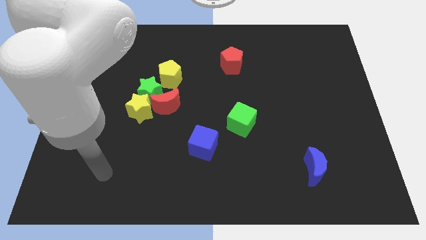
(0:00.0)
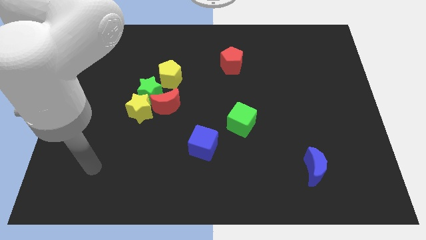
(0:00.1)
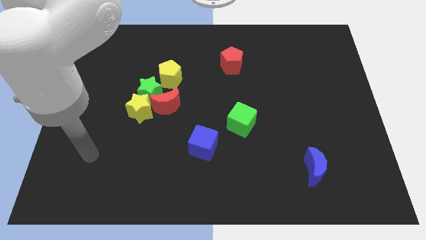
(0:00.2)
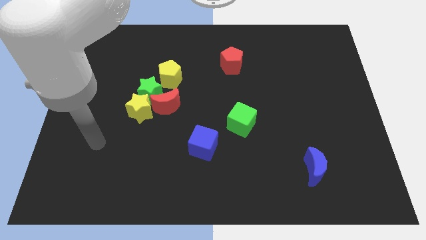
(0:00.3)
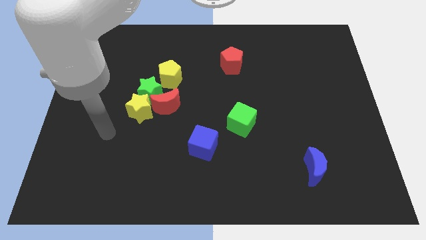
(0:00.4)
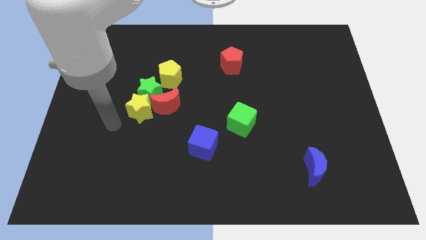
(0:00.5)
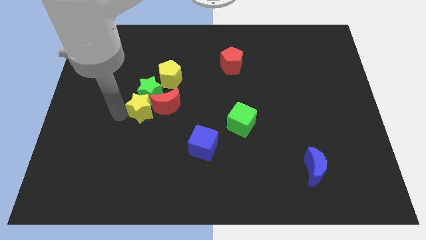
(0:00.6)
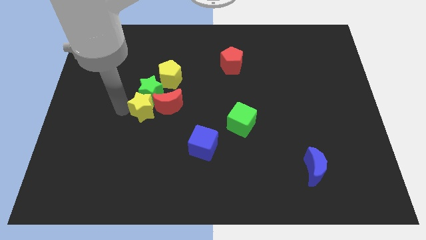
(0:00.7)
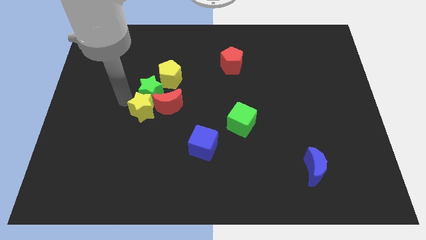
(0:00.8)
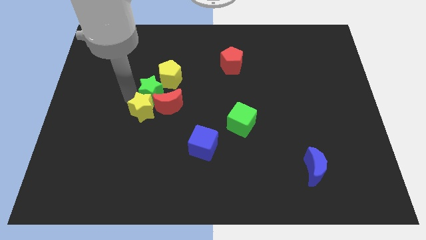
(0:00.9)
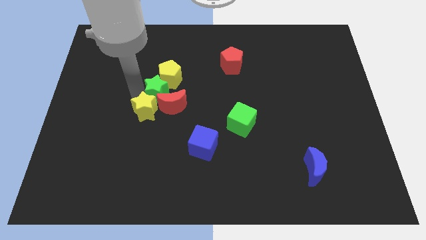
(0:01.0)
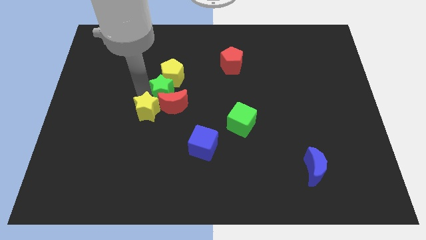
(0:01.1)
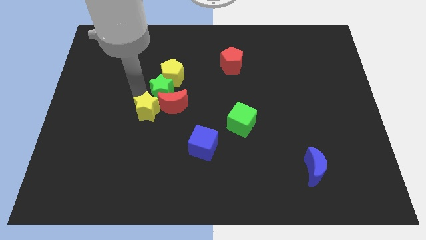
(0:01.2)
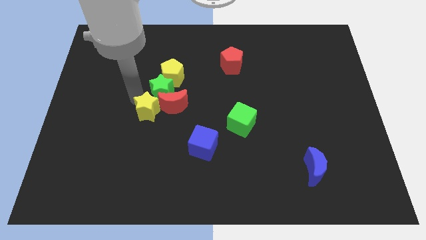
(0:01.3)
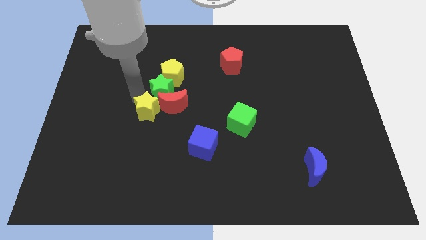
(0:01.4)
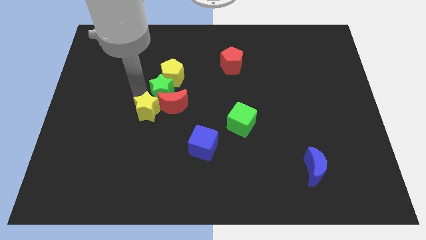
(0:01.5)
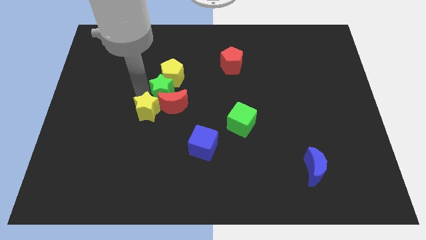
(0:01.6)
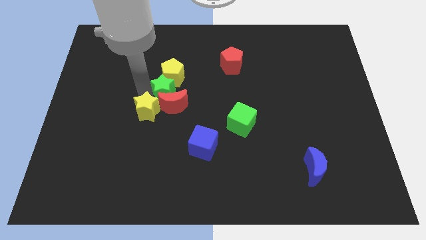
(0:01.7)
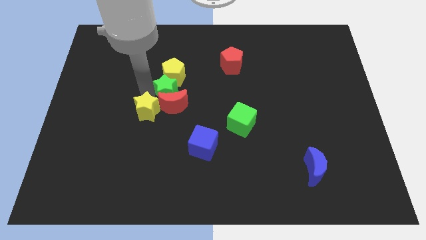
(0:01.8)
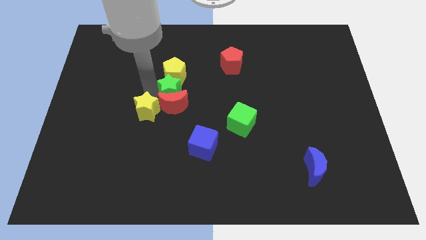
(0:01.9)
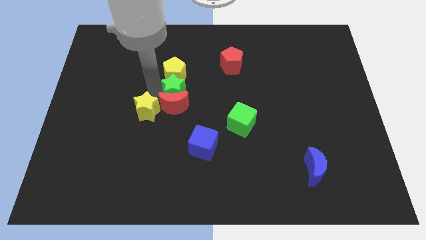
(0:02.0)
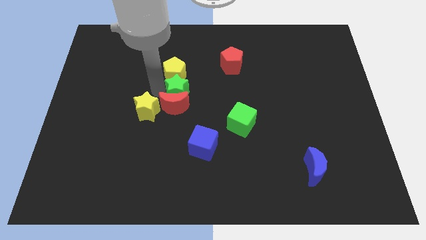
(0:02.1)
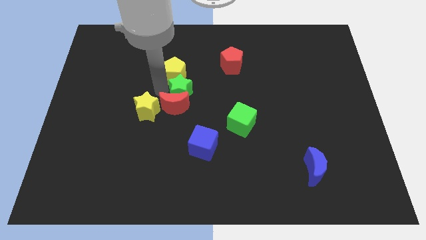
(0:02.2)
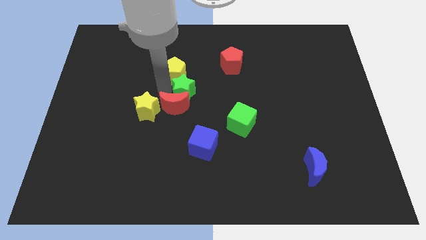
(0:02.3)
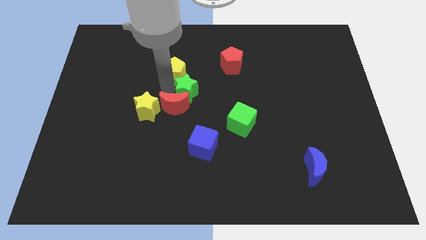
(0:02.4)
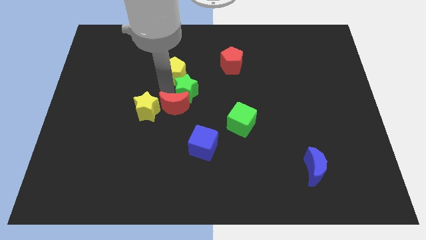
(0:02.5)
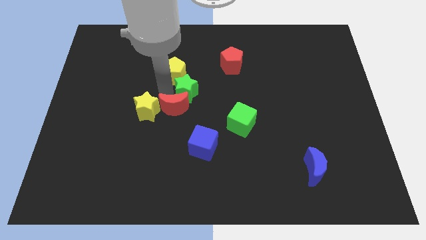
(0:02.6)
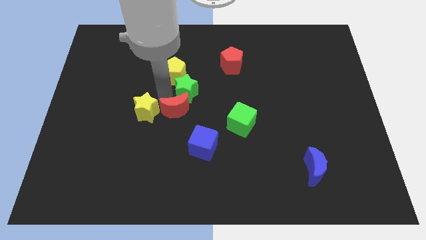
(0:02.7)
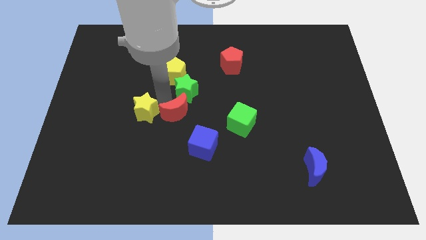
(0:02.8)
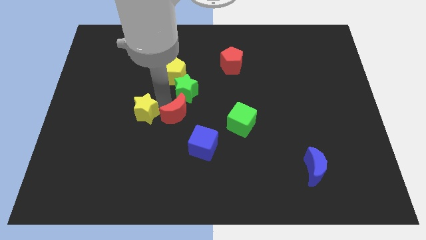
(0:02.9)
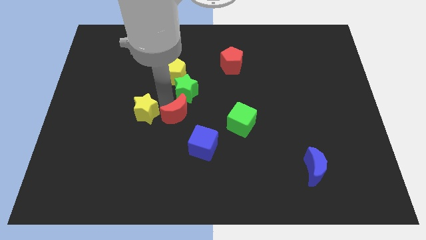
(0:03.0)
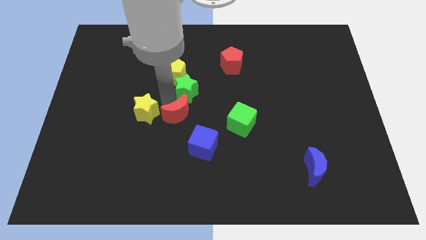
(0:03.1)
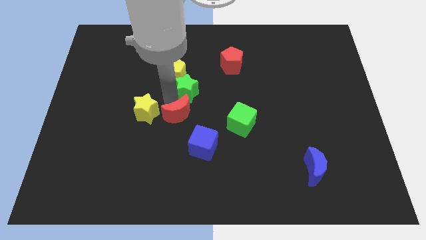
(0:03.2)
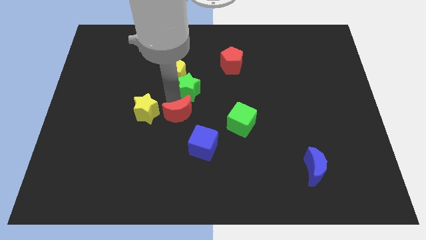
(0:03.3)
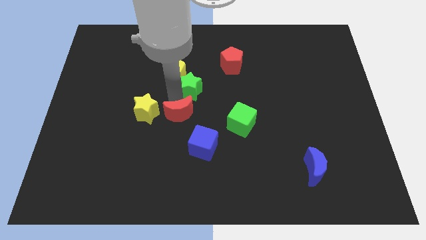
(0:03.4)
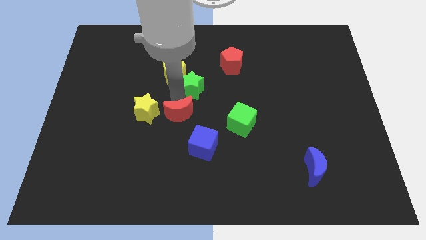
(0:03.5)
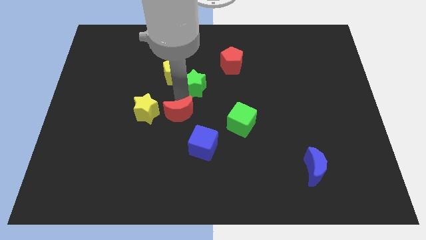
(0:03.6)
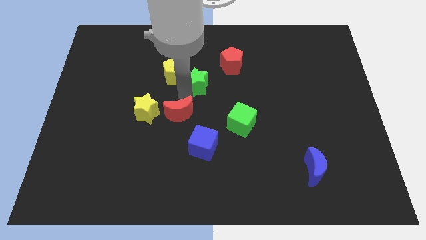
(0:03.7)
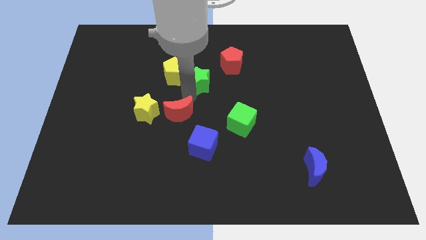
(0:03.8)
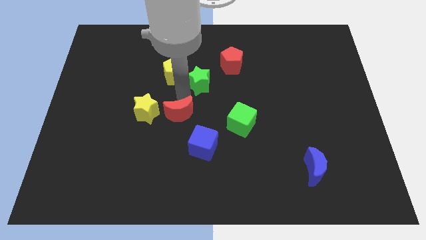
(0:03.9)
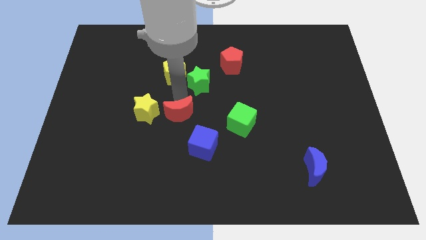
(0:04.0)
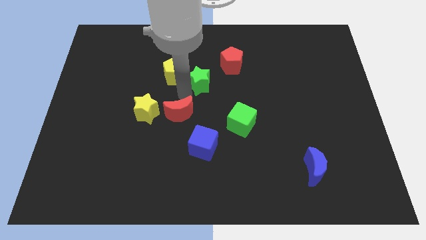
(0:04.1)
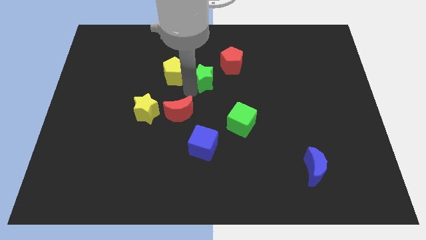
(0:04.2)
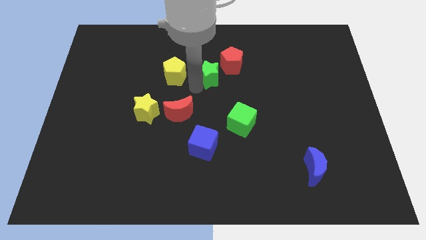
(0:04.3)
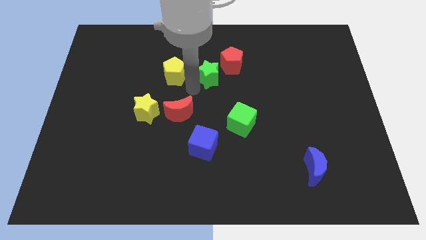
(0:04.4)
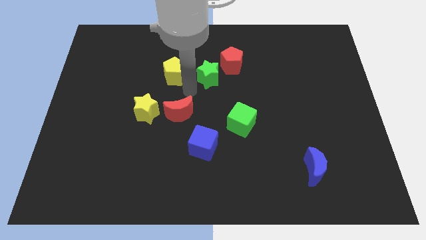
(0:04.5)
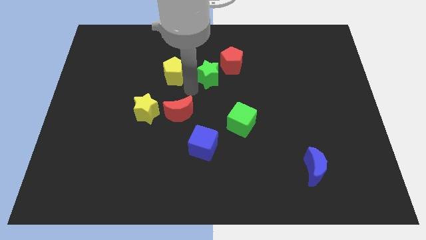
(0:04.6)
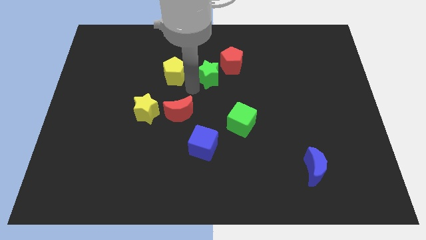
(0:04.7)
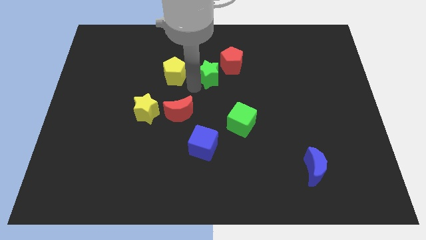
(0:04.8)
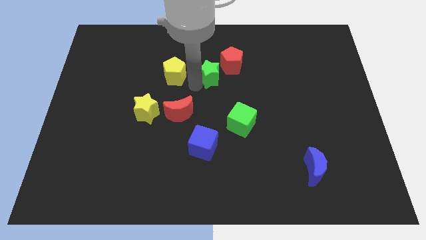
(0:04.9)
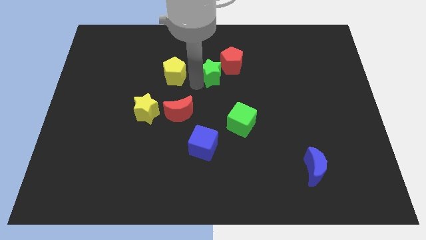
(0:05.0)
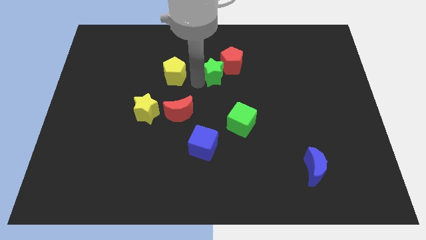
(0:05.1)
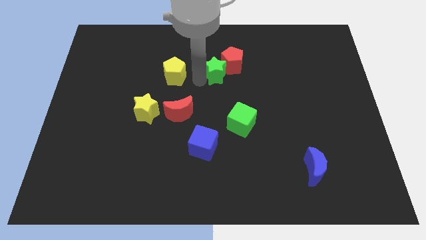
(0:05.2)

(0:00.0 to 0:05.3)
slide the green star close to the red pentagon

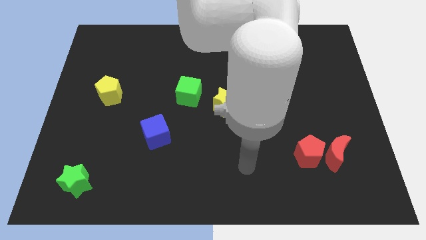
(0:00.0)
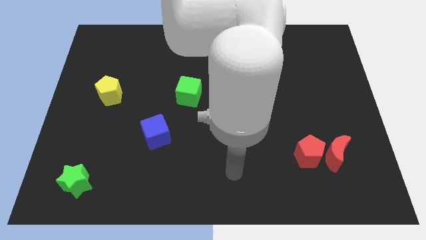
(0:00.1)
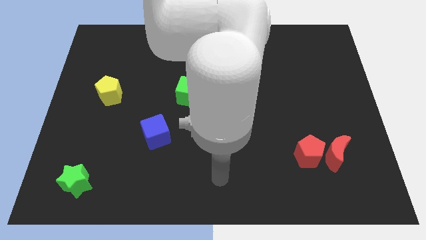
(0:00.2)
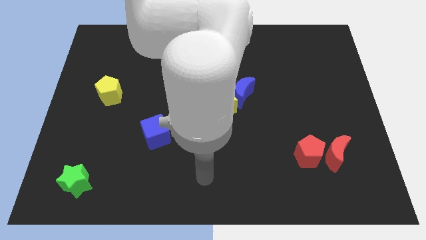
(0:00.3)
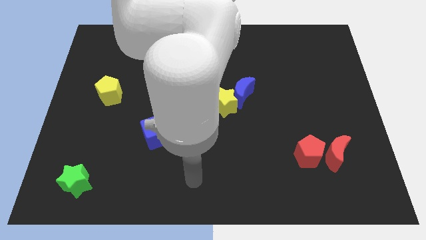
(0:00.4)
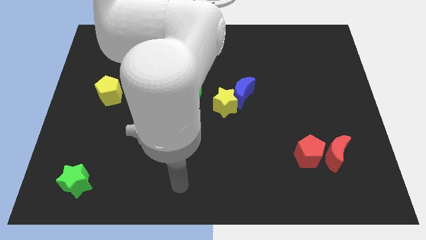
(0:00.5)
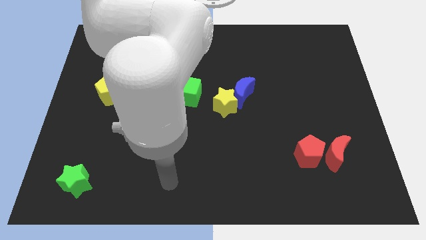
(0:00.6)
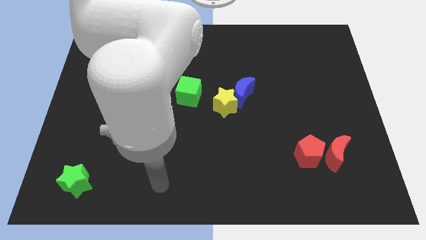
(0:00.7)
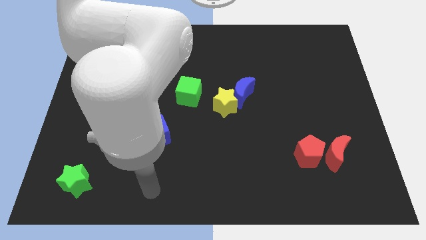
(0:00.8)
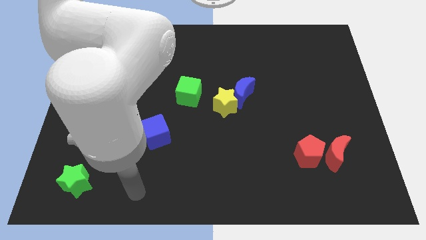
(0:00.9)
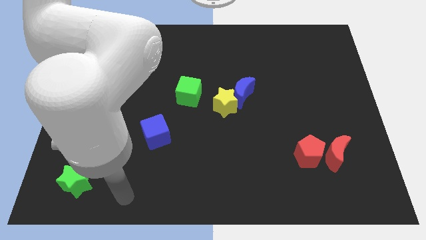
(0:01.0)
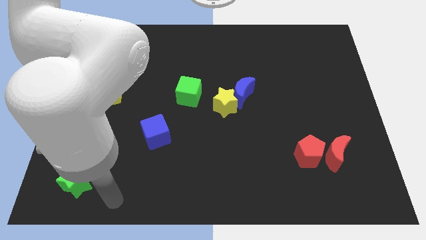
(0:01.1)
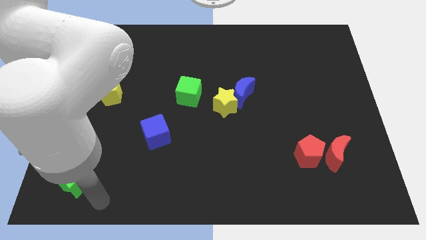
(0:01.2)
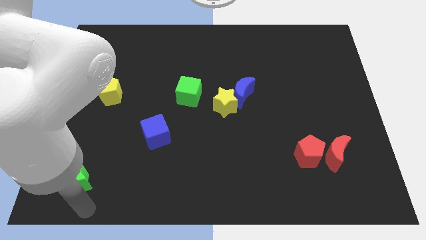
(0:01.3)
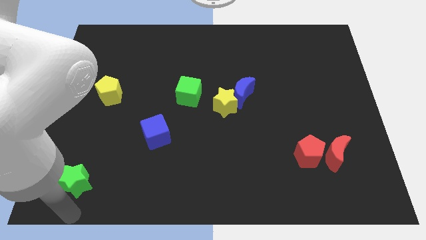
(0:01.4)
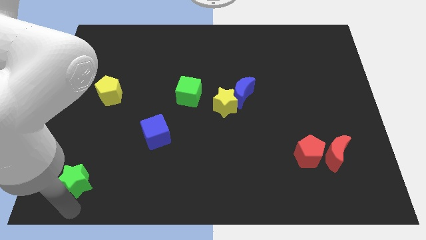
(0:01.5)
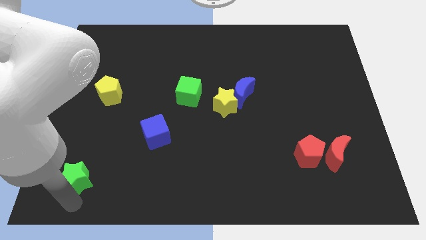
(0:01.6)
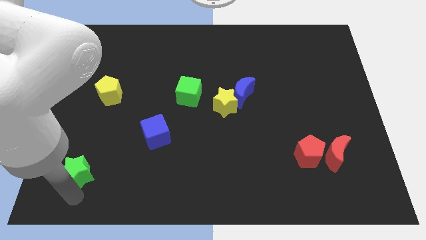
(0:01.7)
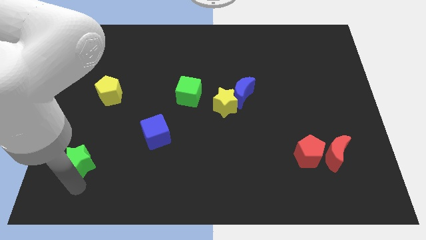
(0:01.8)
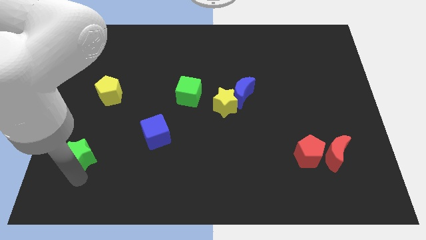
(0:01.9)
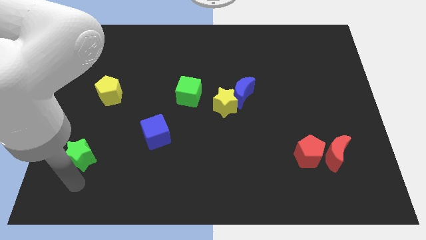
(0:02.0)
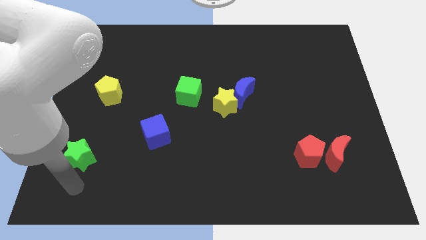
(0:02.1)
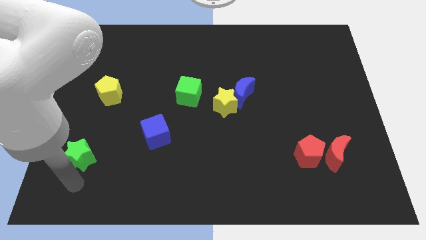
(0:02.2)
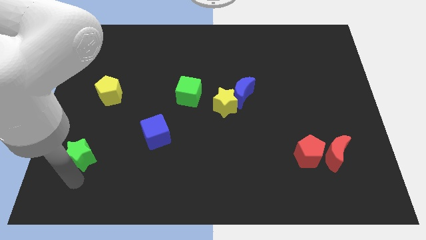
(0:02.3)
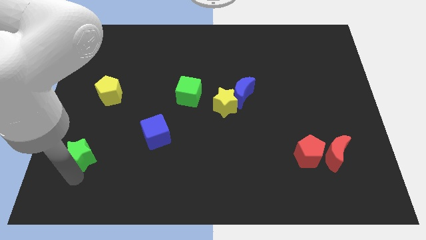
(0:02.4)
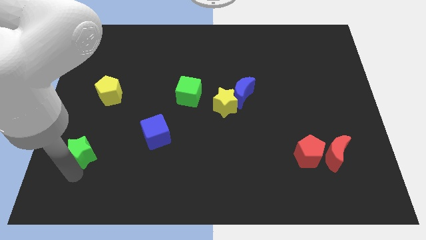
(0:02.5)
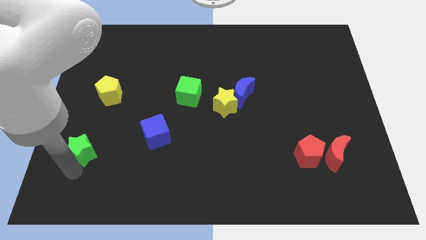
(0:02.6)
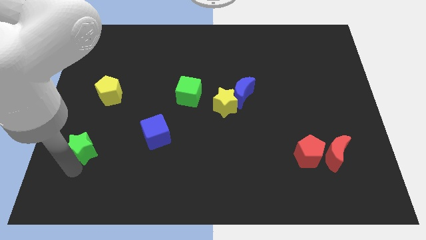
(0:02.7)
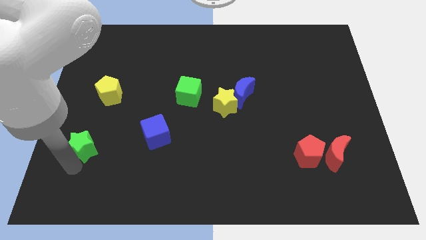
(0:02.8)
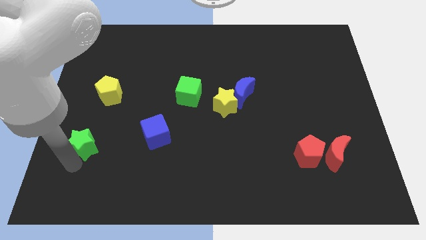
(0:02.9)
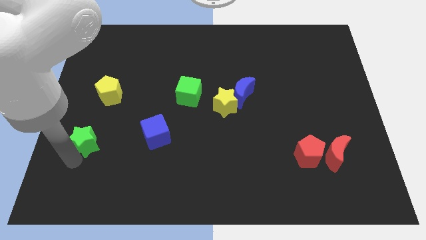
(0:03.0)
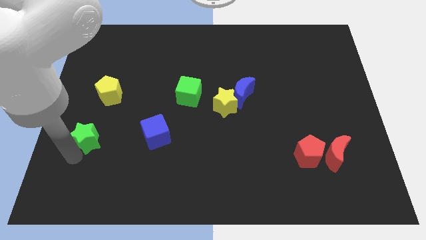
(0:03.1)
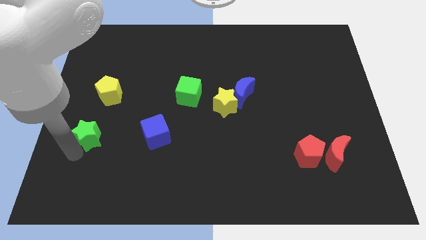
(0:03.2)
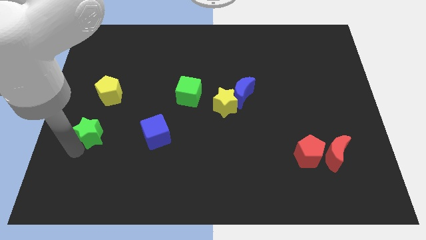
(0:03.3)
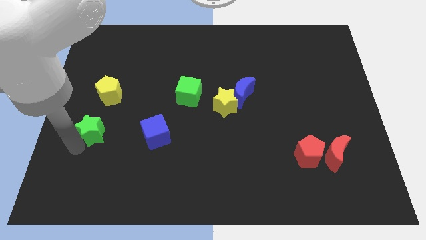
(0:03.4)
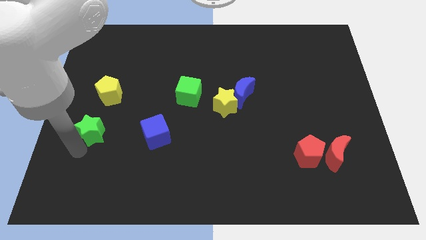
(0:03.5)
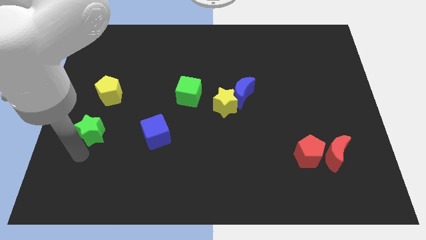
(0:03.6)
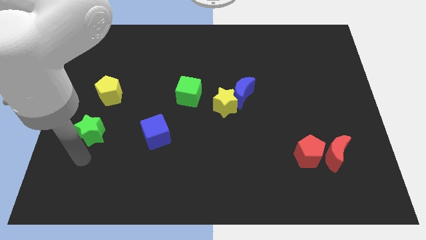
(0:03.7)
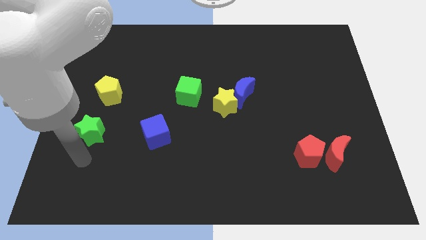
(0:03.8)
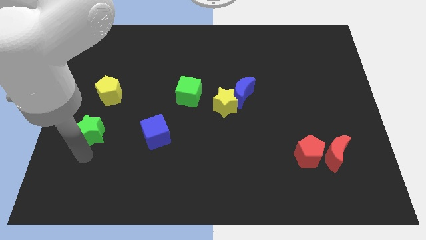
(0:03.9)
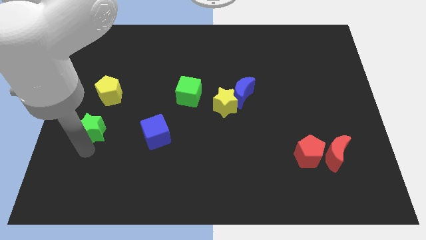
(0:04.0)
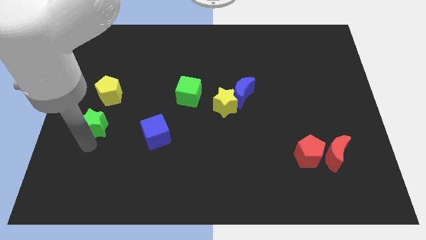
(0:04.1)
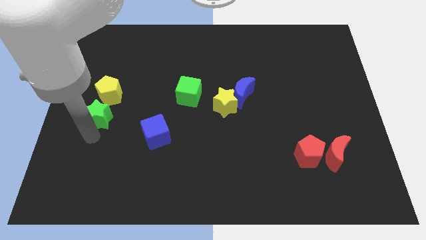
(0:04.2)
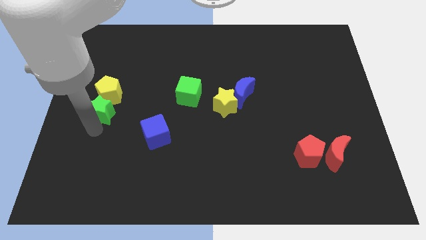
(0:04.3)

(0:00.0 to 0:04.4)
slide the green star next to the yellow pentagon
